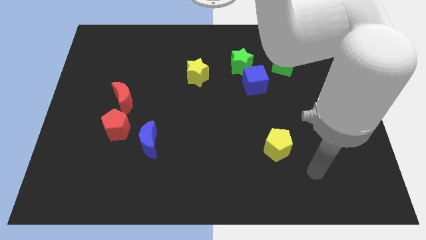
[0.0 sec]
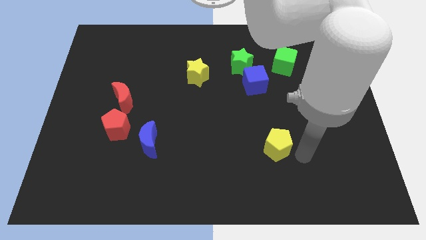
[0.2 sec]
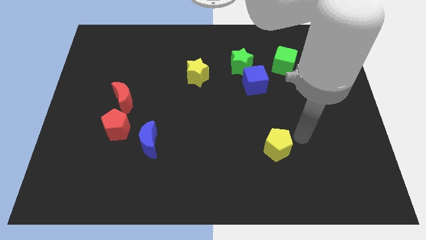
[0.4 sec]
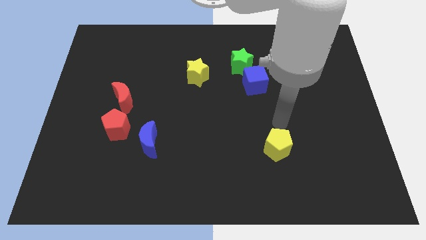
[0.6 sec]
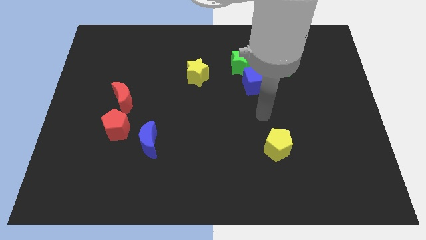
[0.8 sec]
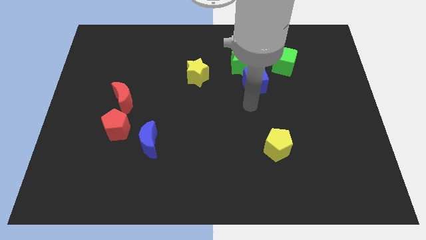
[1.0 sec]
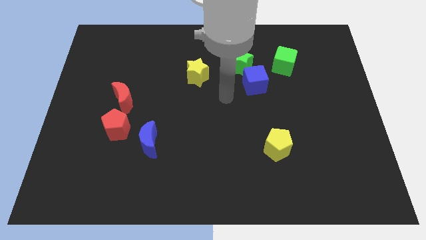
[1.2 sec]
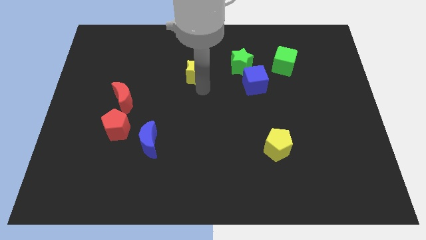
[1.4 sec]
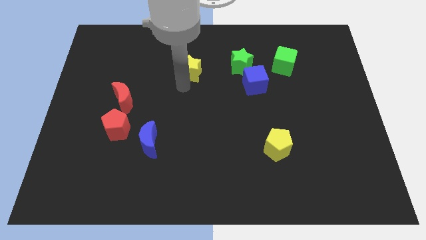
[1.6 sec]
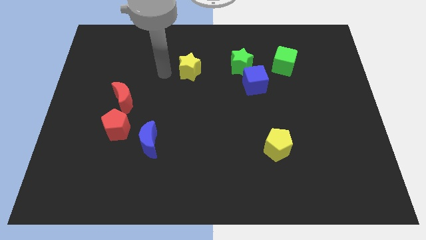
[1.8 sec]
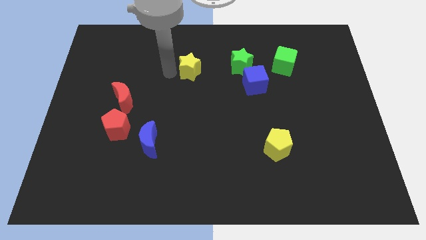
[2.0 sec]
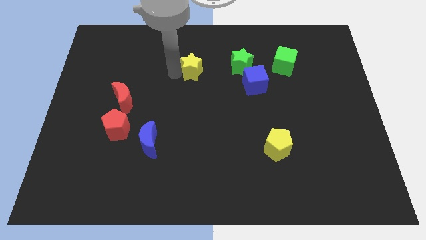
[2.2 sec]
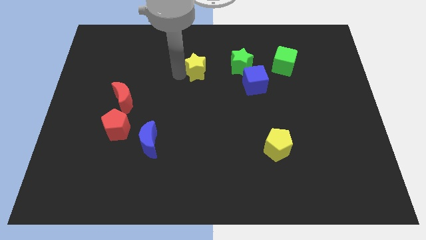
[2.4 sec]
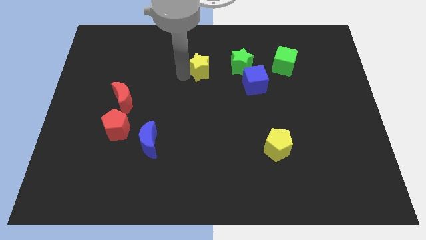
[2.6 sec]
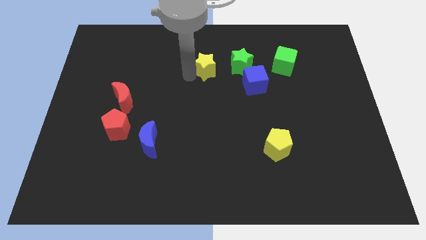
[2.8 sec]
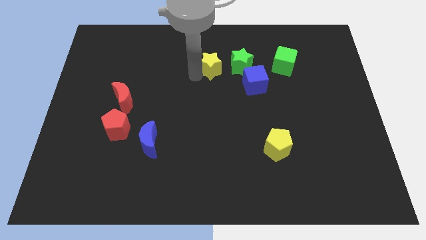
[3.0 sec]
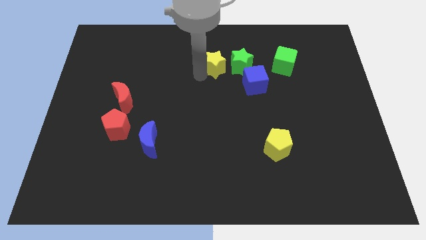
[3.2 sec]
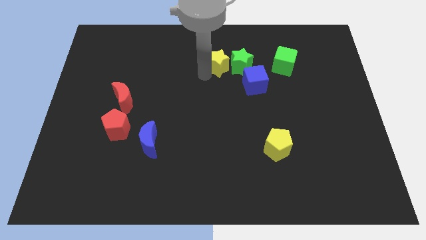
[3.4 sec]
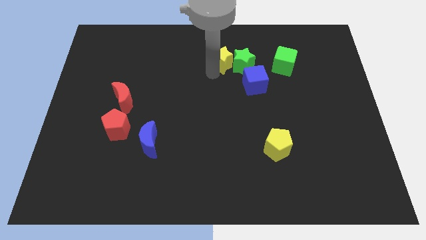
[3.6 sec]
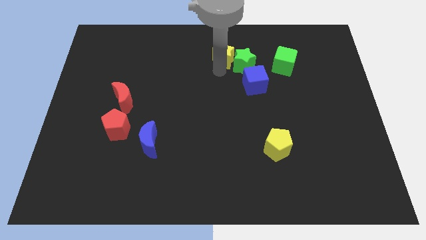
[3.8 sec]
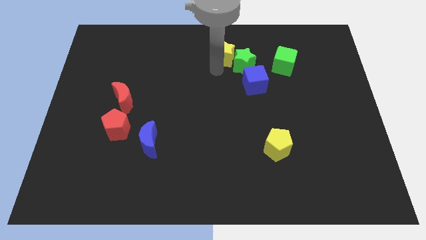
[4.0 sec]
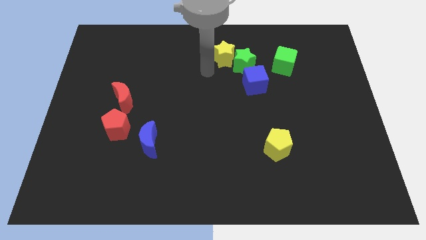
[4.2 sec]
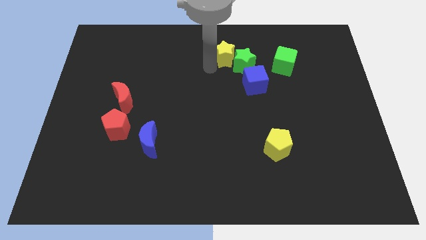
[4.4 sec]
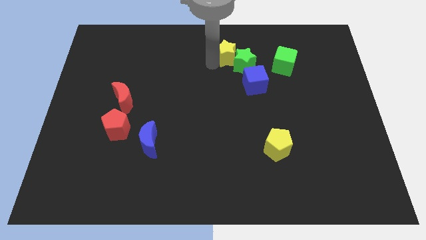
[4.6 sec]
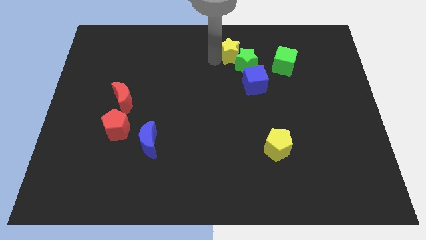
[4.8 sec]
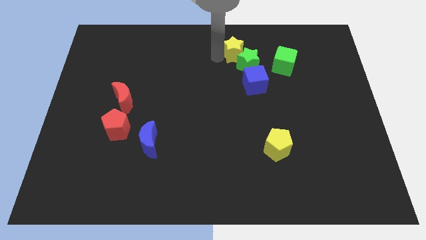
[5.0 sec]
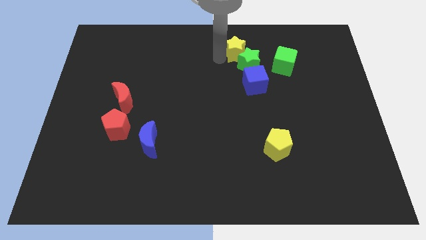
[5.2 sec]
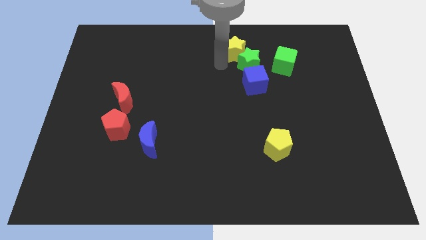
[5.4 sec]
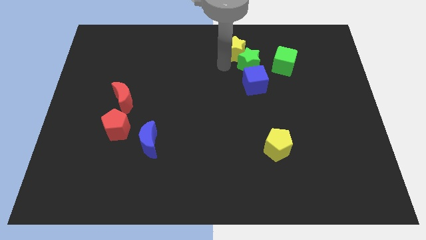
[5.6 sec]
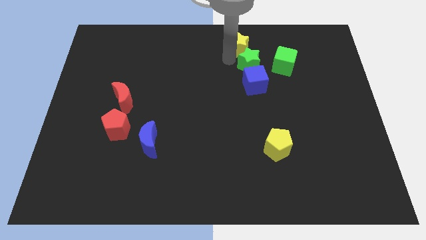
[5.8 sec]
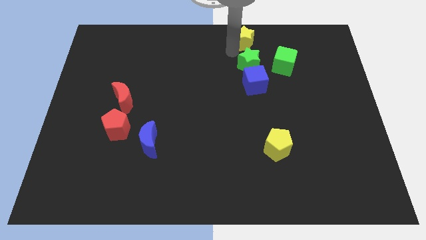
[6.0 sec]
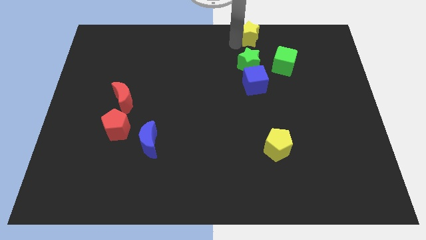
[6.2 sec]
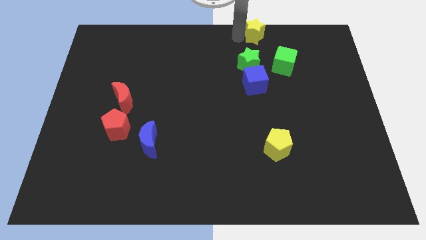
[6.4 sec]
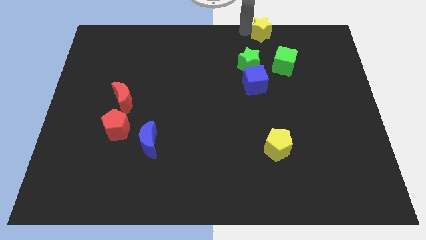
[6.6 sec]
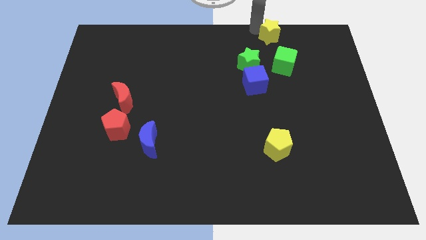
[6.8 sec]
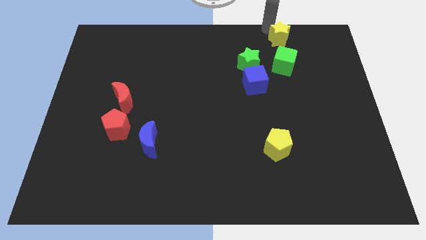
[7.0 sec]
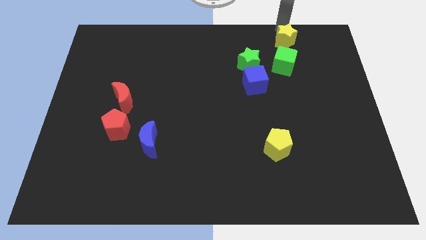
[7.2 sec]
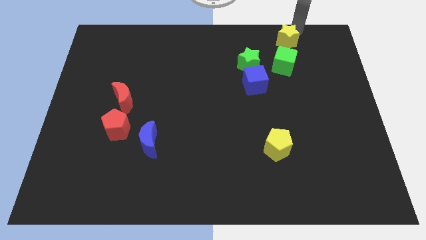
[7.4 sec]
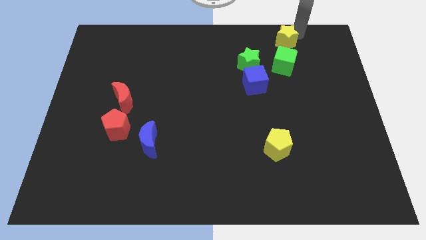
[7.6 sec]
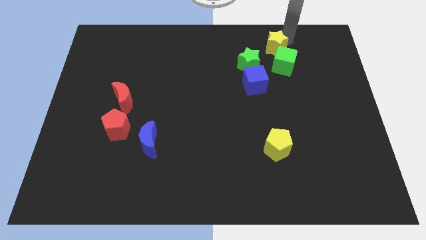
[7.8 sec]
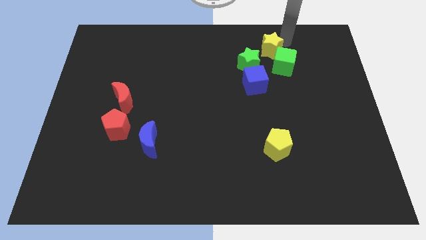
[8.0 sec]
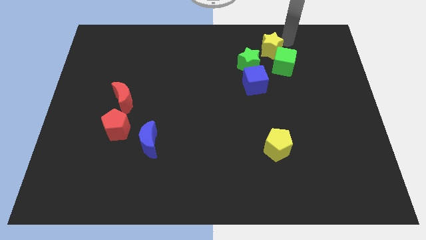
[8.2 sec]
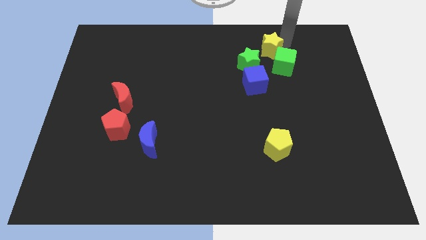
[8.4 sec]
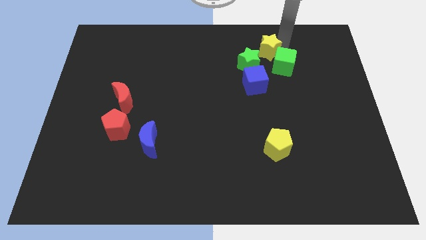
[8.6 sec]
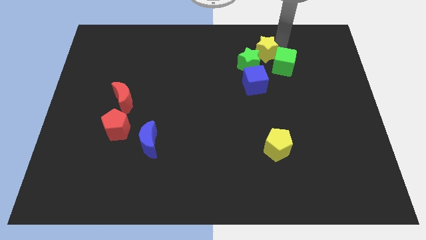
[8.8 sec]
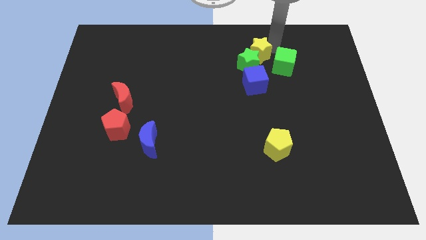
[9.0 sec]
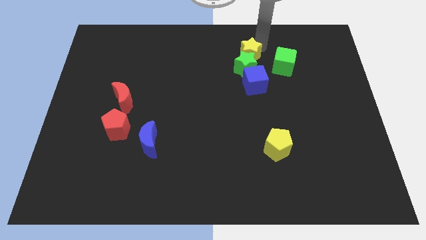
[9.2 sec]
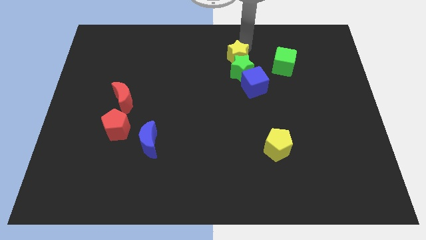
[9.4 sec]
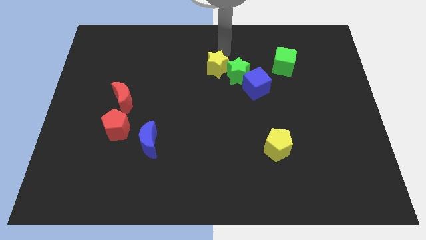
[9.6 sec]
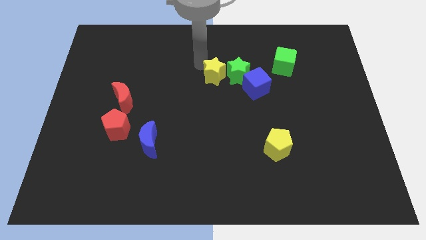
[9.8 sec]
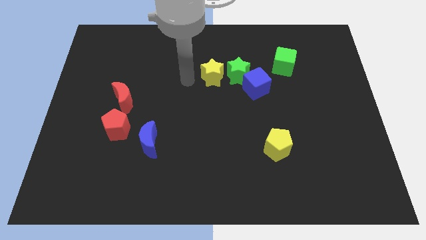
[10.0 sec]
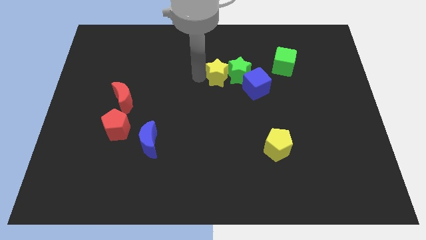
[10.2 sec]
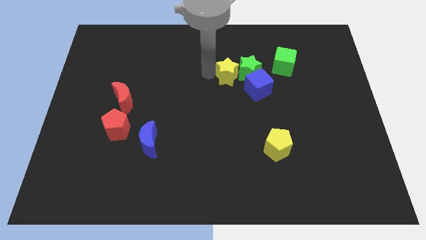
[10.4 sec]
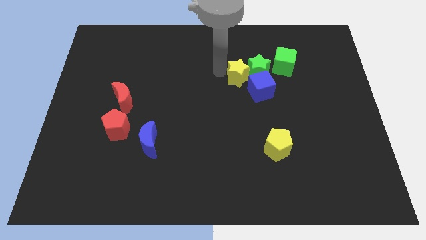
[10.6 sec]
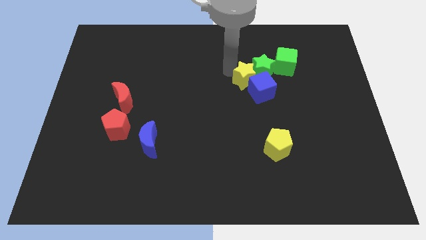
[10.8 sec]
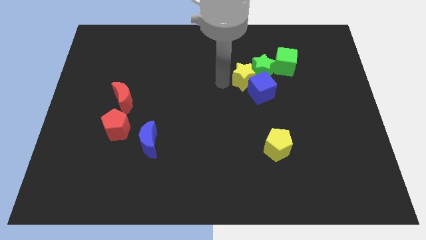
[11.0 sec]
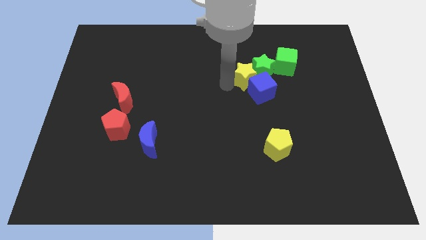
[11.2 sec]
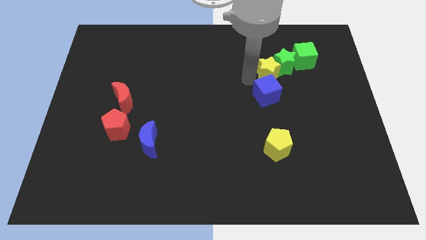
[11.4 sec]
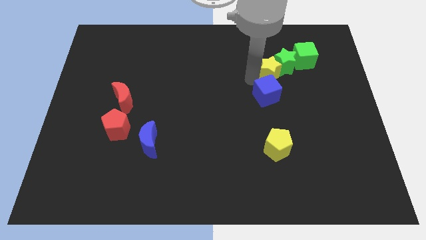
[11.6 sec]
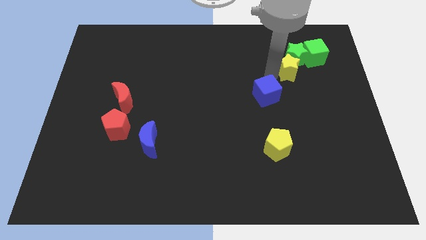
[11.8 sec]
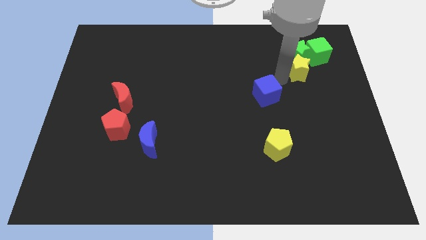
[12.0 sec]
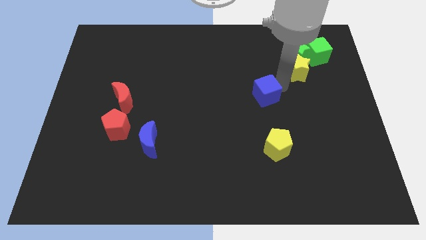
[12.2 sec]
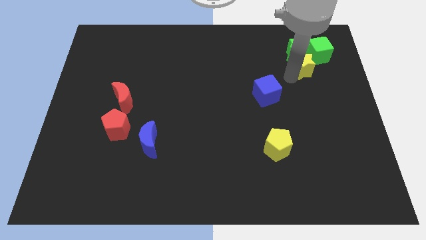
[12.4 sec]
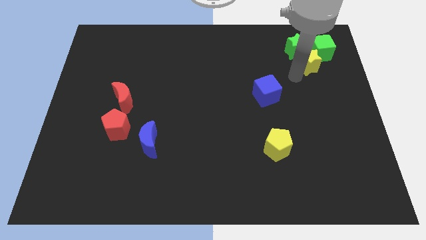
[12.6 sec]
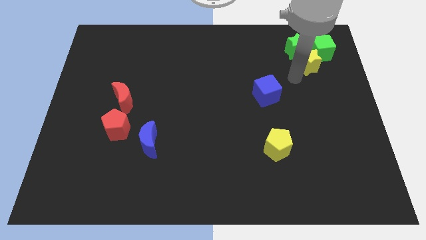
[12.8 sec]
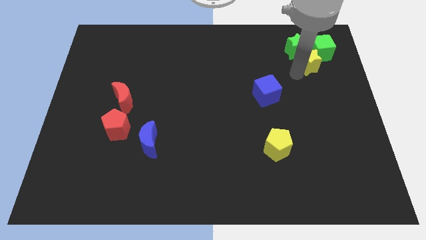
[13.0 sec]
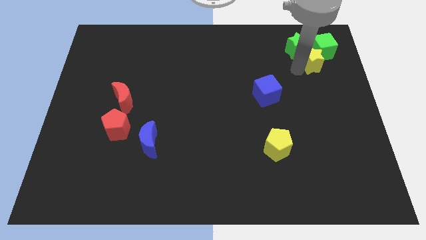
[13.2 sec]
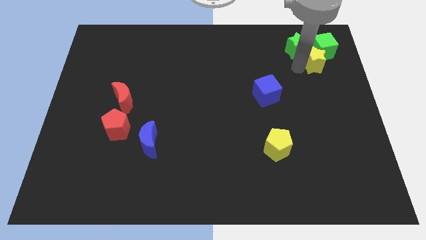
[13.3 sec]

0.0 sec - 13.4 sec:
put the yellow star to the green cube

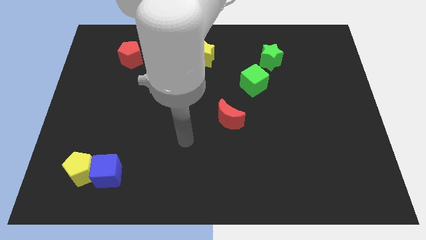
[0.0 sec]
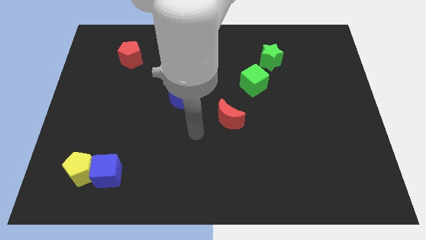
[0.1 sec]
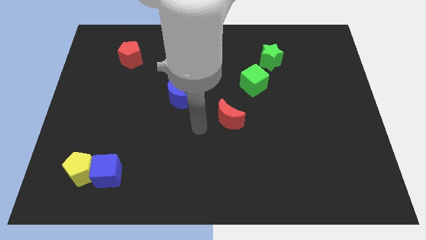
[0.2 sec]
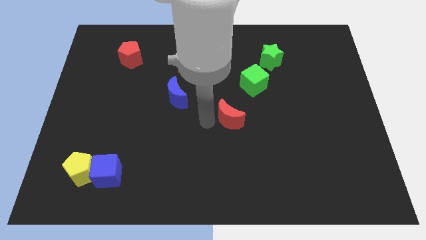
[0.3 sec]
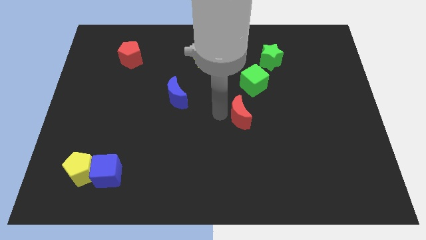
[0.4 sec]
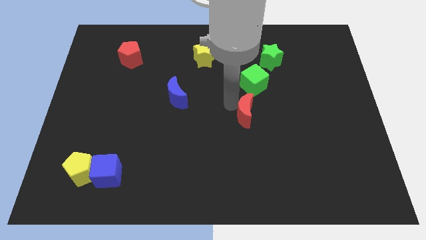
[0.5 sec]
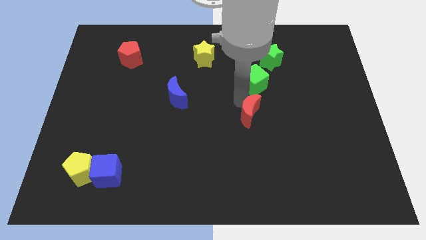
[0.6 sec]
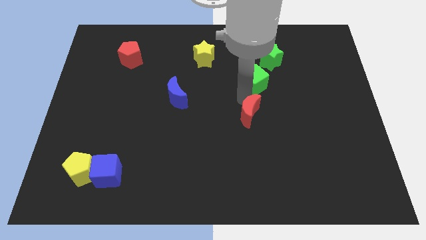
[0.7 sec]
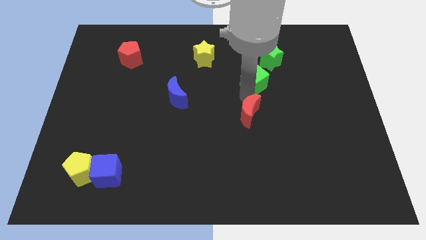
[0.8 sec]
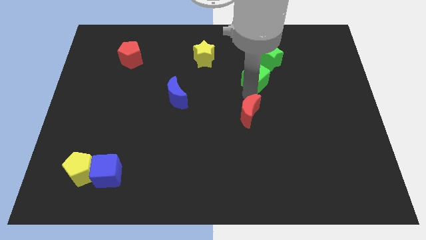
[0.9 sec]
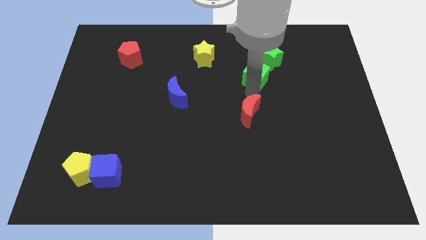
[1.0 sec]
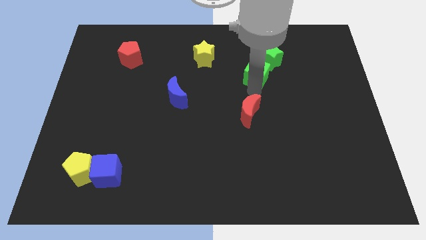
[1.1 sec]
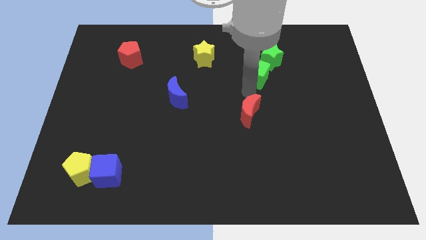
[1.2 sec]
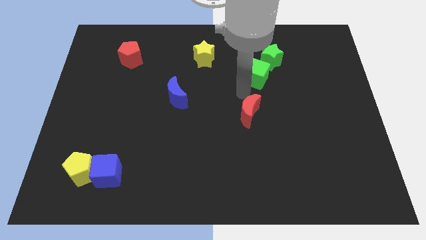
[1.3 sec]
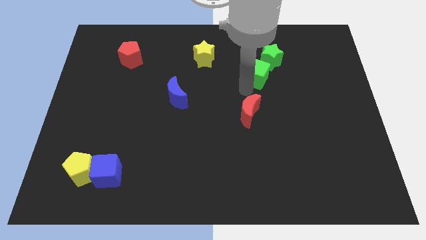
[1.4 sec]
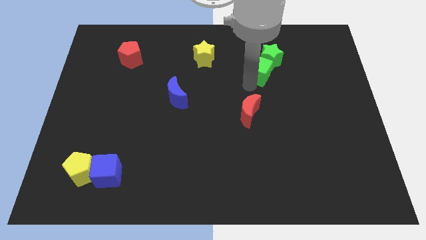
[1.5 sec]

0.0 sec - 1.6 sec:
move the green cube towards the green star
